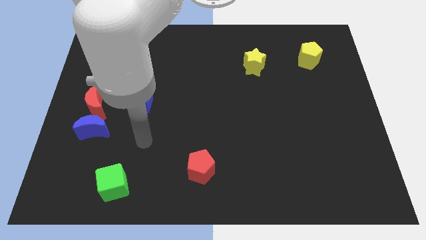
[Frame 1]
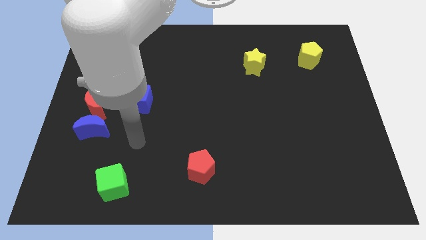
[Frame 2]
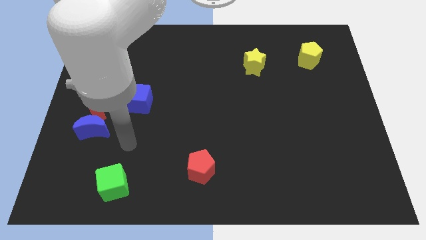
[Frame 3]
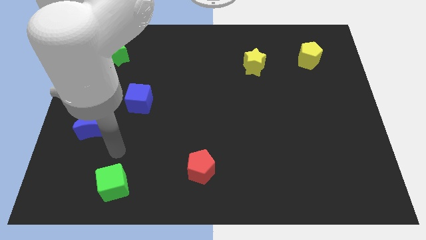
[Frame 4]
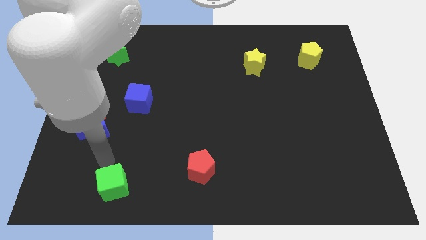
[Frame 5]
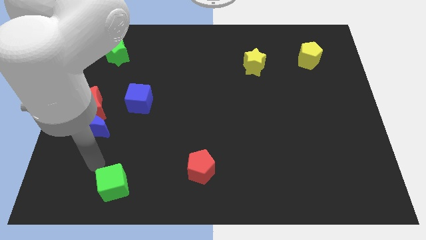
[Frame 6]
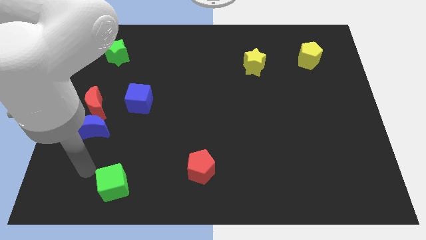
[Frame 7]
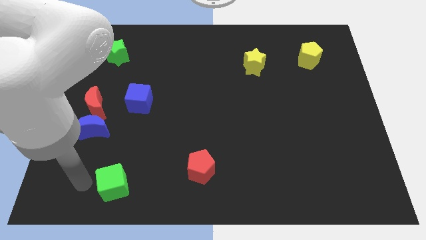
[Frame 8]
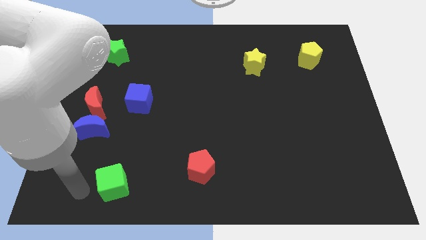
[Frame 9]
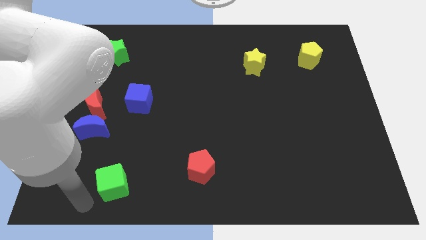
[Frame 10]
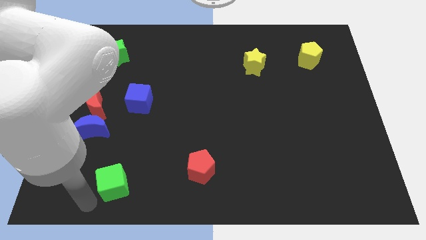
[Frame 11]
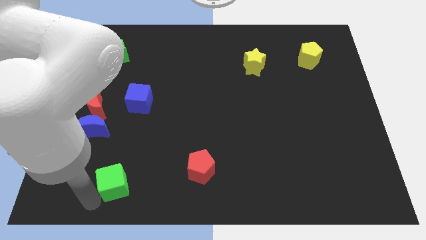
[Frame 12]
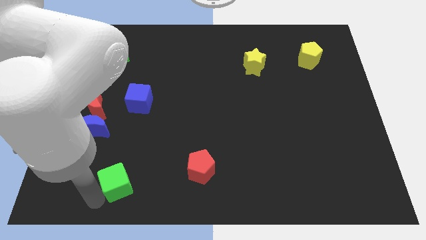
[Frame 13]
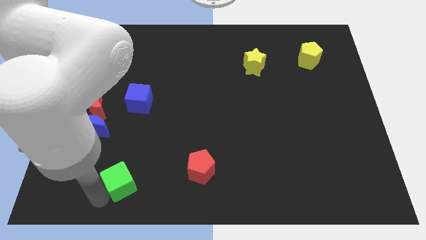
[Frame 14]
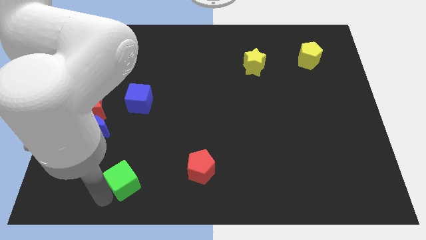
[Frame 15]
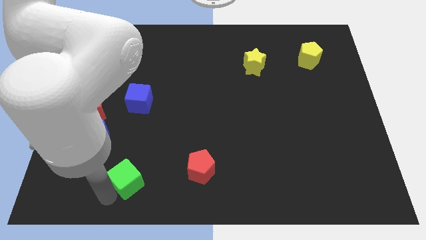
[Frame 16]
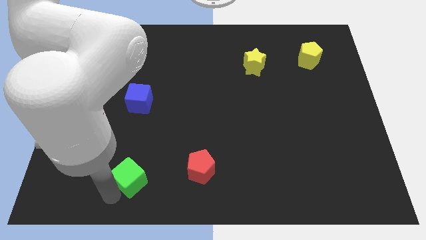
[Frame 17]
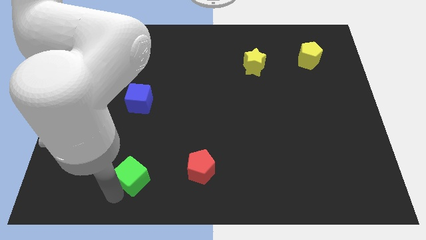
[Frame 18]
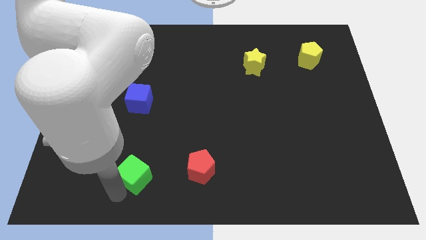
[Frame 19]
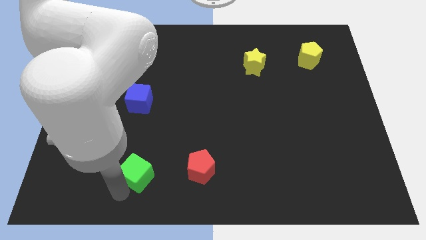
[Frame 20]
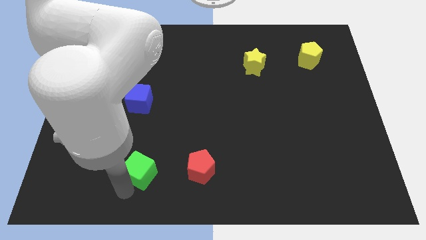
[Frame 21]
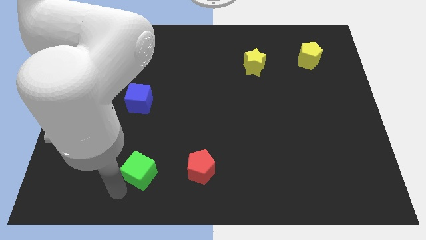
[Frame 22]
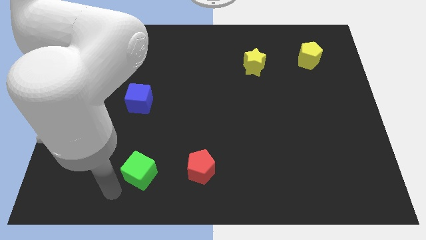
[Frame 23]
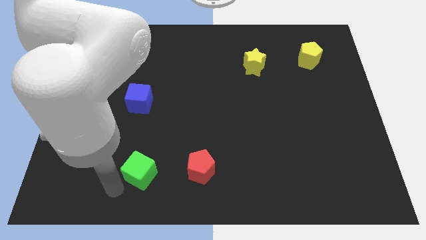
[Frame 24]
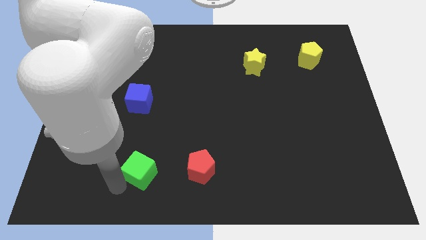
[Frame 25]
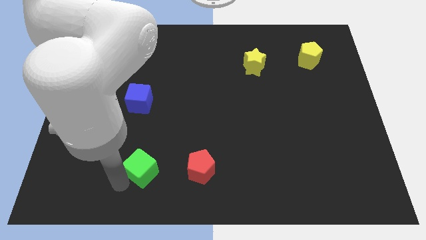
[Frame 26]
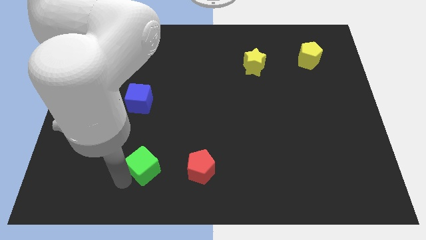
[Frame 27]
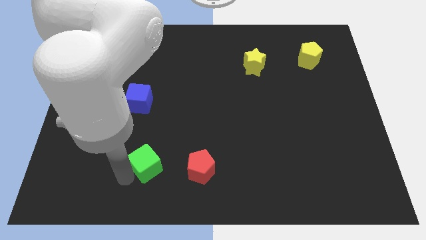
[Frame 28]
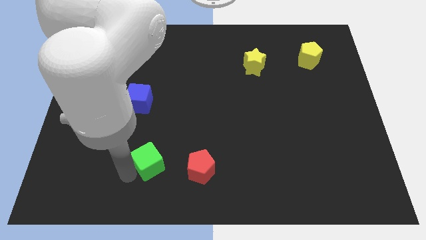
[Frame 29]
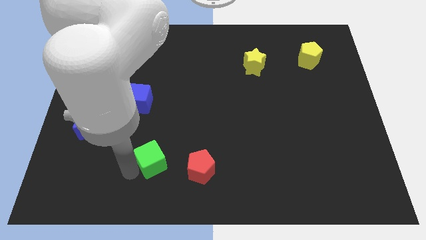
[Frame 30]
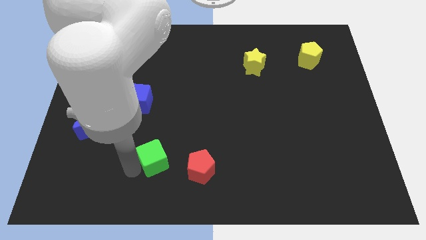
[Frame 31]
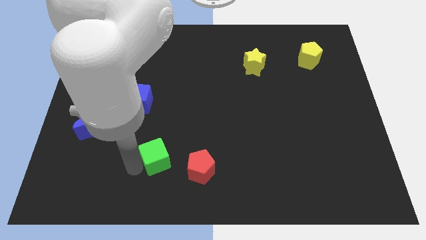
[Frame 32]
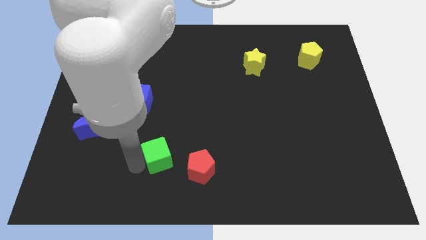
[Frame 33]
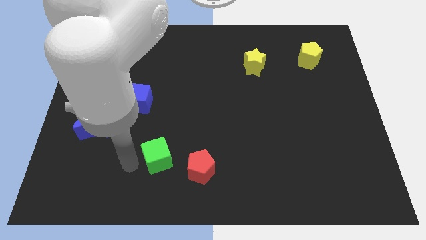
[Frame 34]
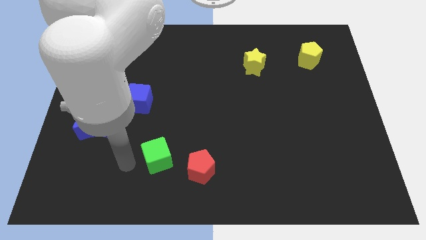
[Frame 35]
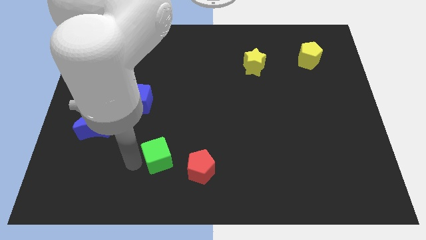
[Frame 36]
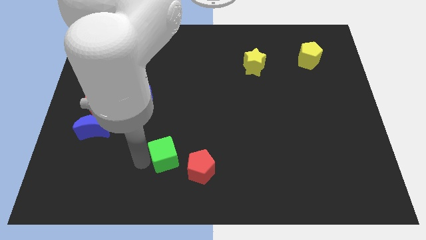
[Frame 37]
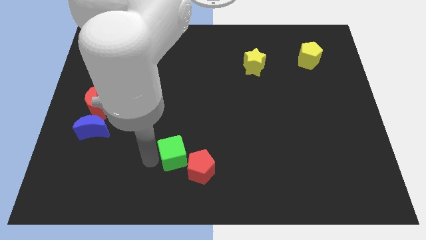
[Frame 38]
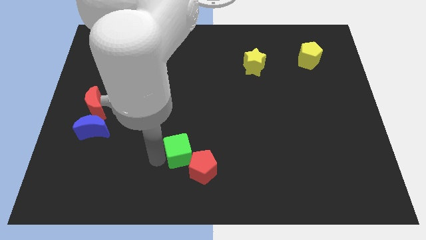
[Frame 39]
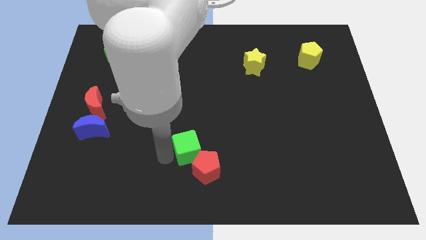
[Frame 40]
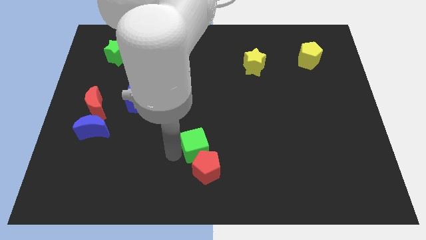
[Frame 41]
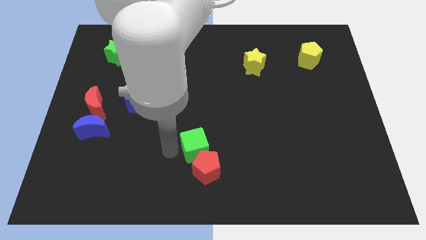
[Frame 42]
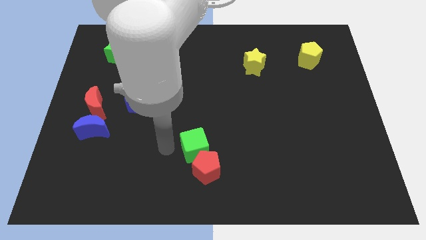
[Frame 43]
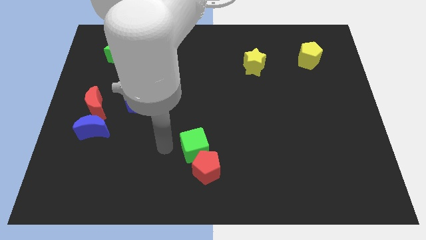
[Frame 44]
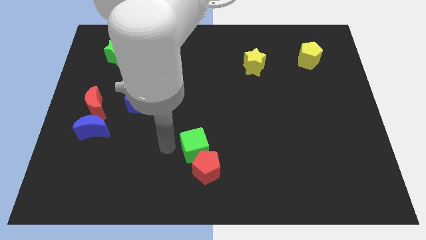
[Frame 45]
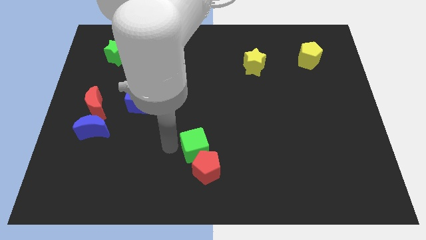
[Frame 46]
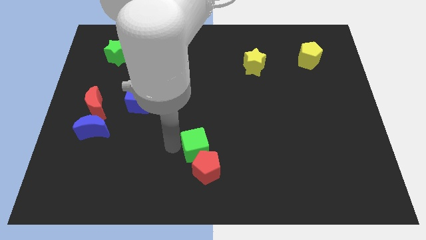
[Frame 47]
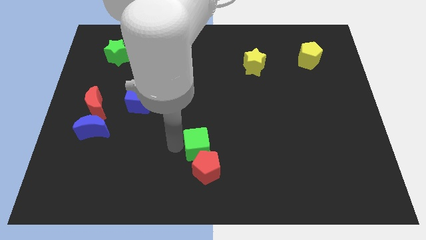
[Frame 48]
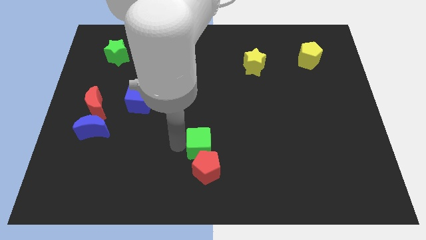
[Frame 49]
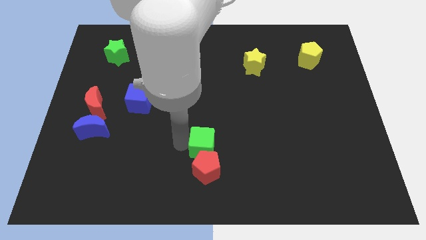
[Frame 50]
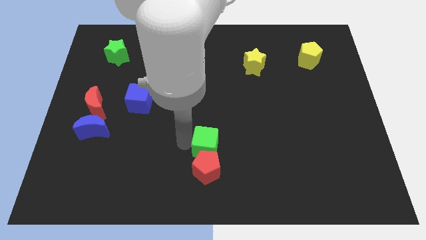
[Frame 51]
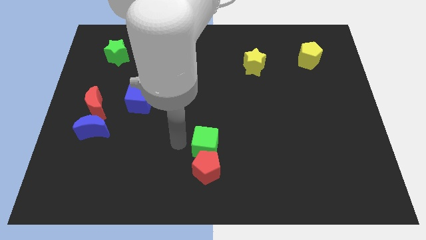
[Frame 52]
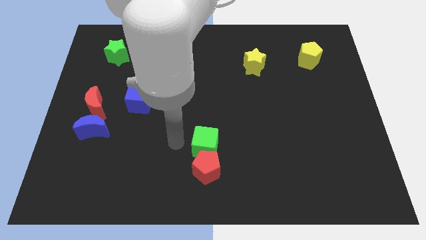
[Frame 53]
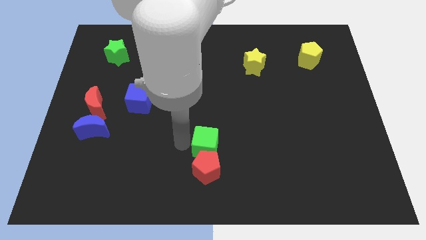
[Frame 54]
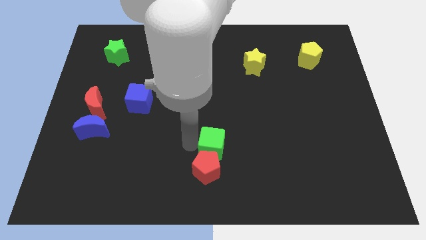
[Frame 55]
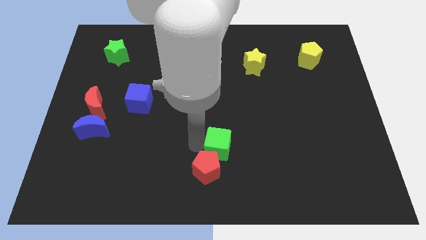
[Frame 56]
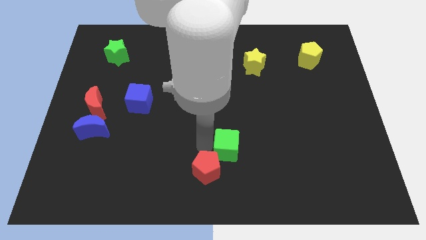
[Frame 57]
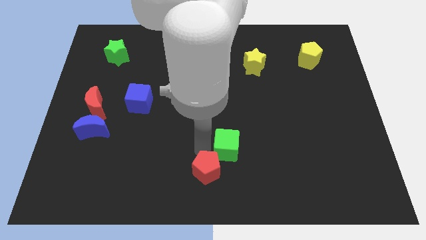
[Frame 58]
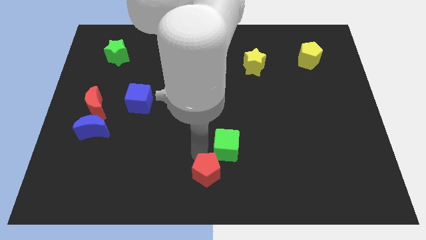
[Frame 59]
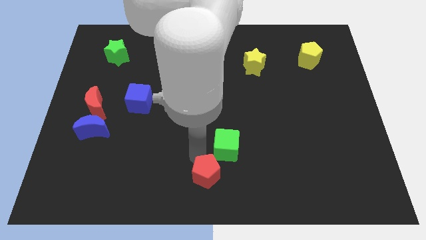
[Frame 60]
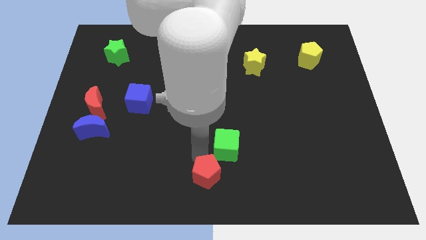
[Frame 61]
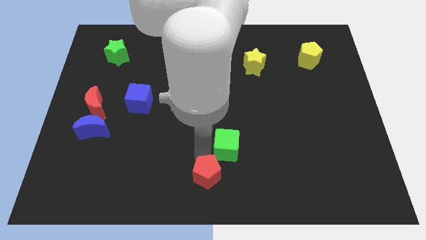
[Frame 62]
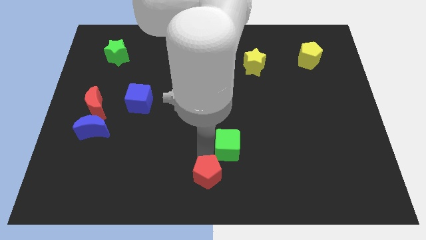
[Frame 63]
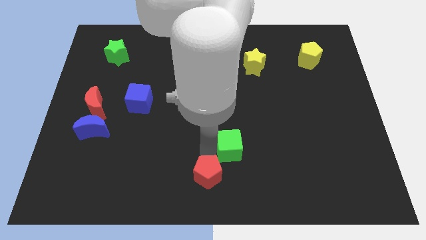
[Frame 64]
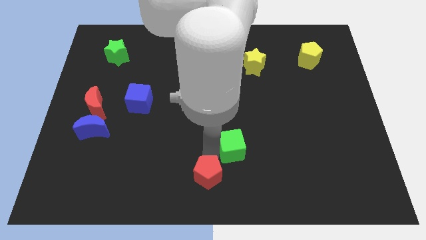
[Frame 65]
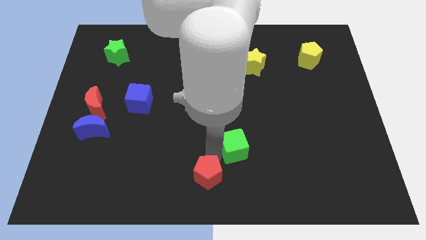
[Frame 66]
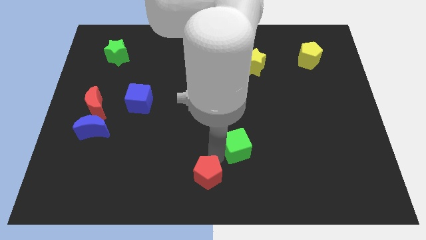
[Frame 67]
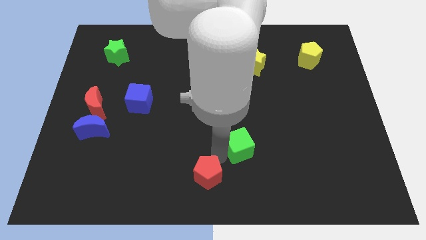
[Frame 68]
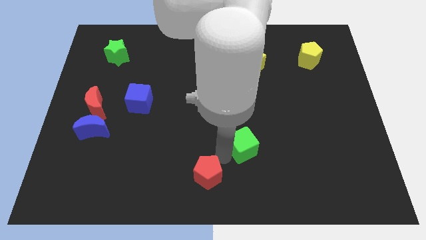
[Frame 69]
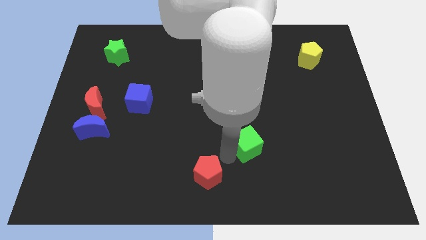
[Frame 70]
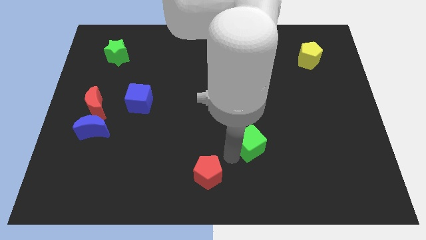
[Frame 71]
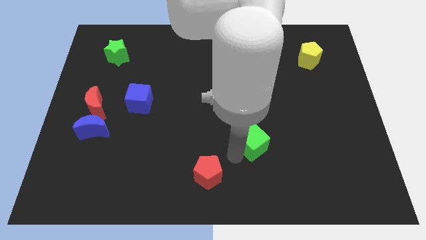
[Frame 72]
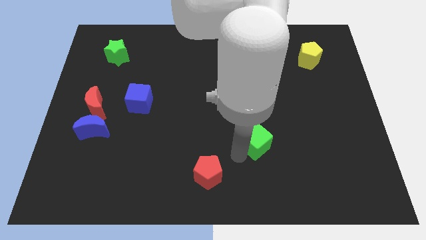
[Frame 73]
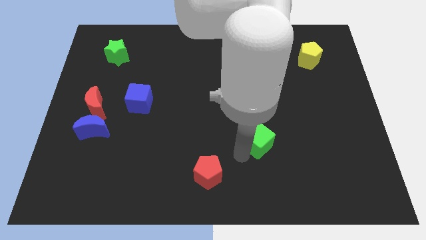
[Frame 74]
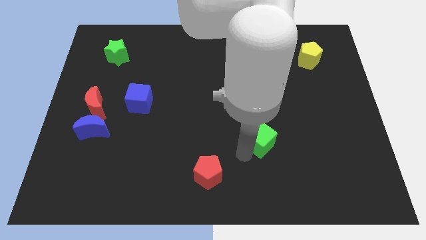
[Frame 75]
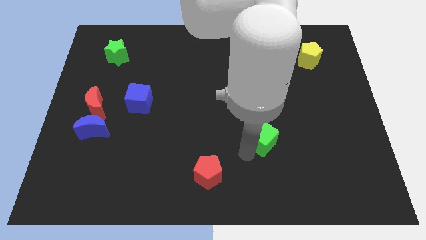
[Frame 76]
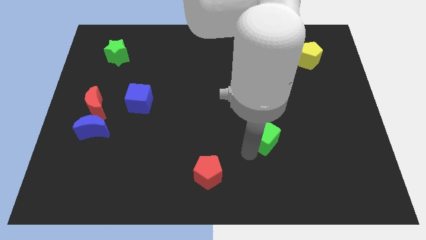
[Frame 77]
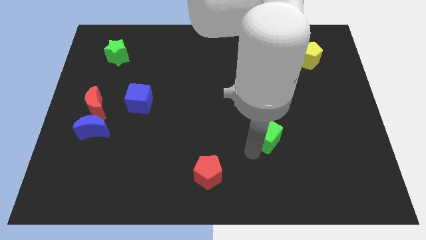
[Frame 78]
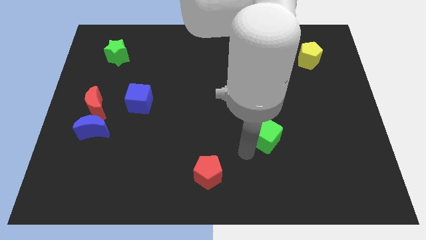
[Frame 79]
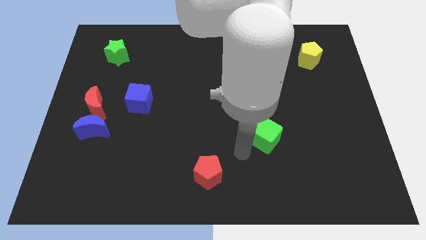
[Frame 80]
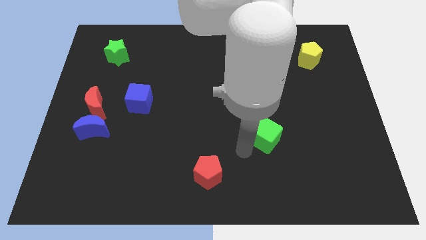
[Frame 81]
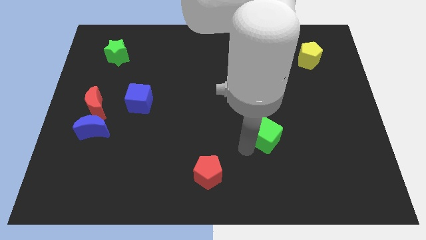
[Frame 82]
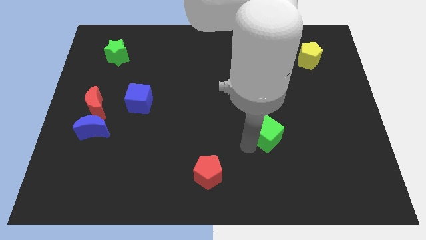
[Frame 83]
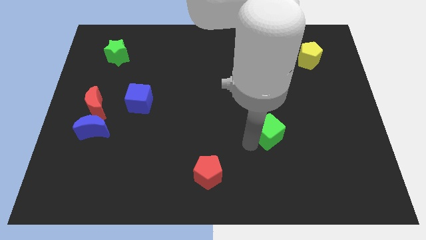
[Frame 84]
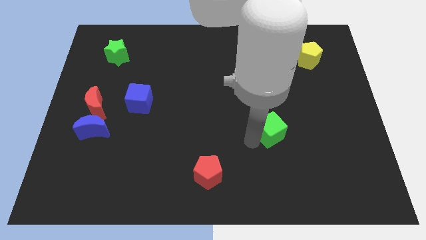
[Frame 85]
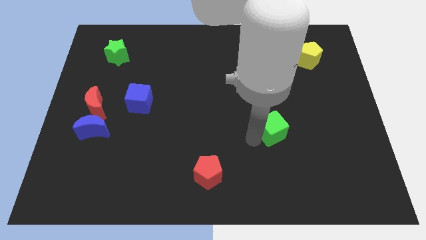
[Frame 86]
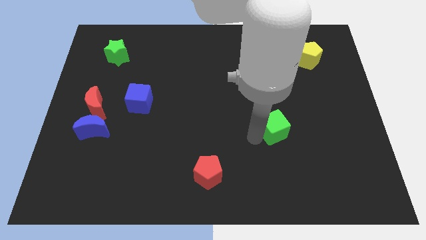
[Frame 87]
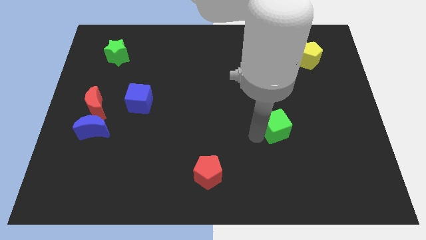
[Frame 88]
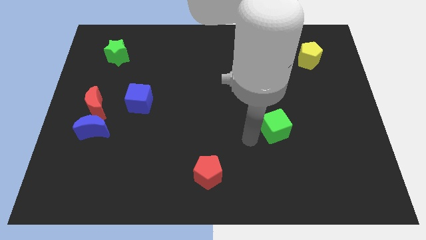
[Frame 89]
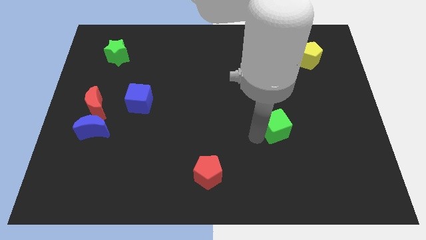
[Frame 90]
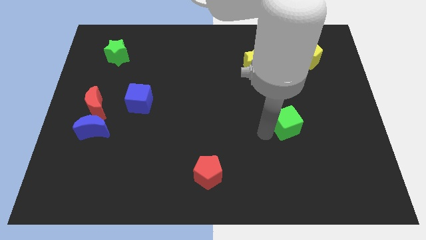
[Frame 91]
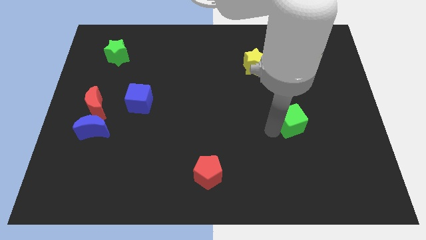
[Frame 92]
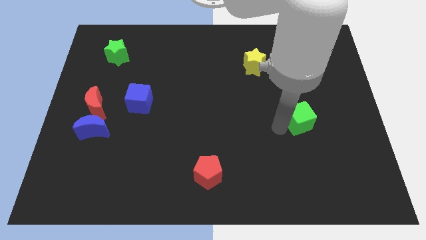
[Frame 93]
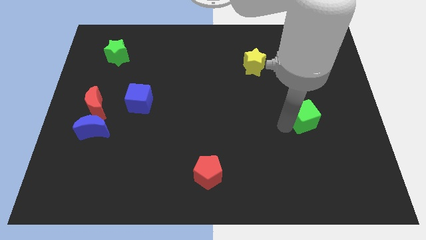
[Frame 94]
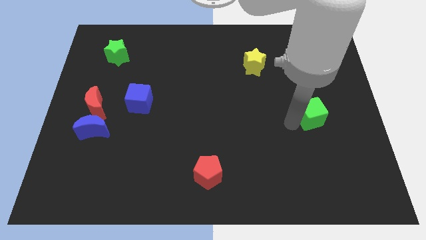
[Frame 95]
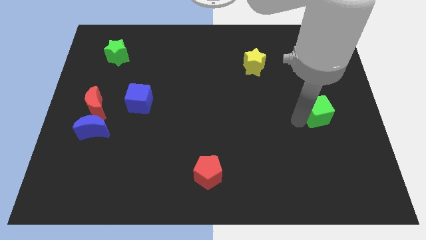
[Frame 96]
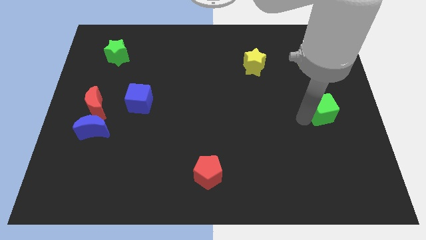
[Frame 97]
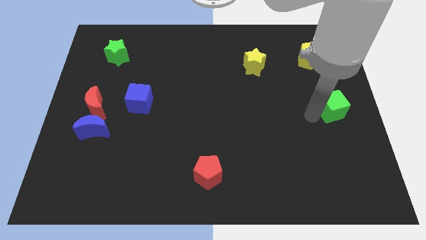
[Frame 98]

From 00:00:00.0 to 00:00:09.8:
move the green cube to the right side
